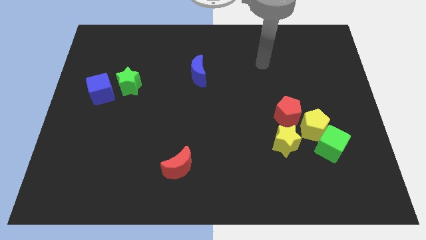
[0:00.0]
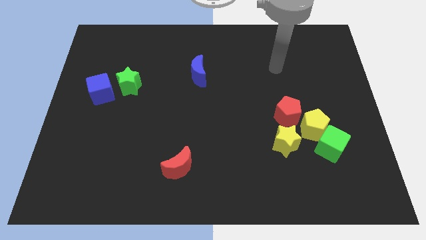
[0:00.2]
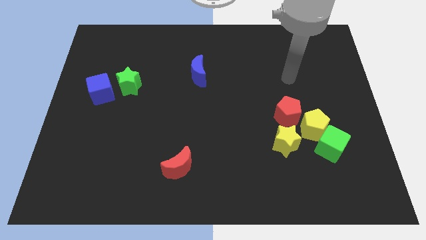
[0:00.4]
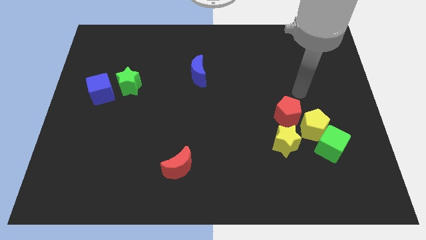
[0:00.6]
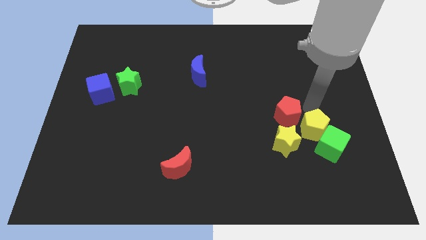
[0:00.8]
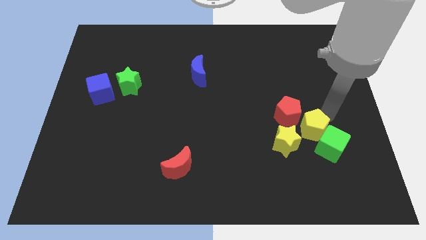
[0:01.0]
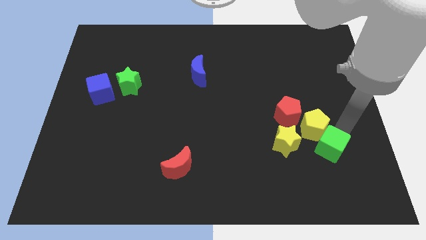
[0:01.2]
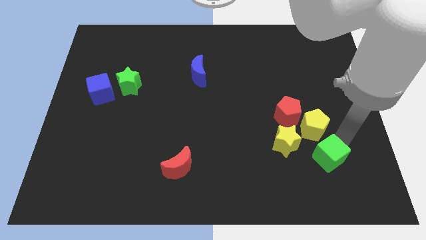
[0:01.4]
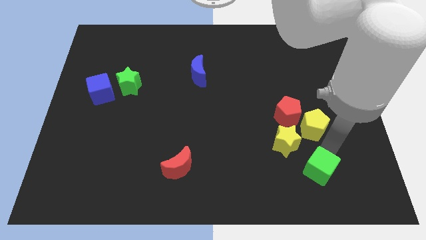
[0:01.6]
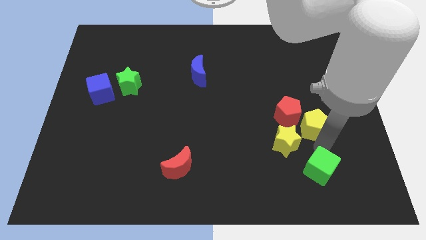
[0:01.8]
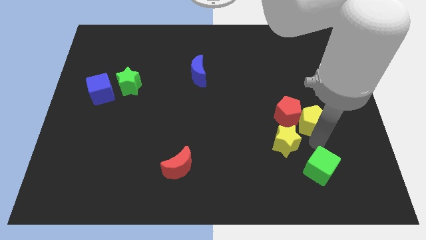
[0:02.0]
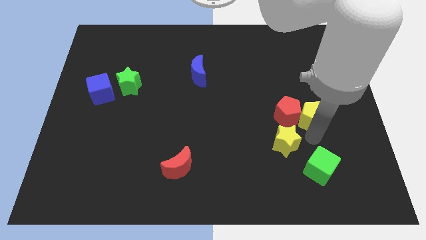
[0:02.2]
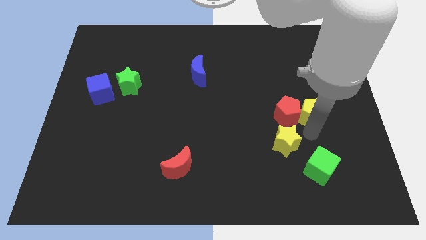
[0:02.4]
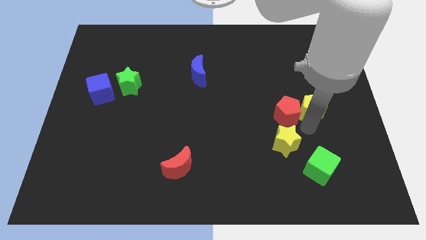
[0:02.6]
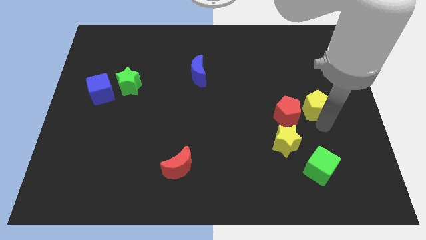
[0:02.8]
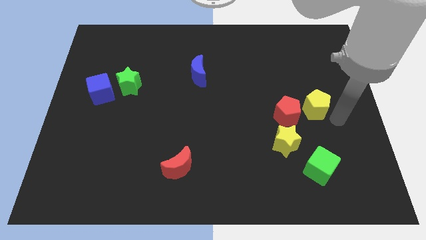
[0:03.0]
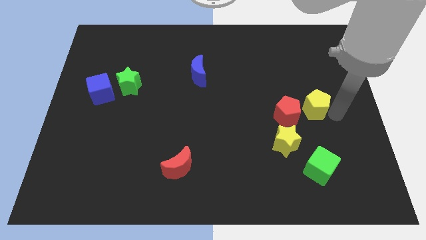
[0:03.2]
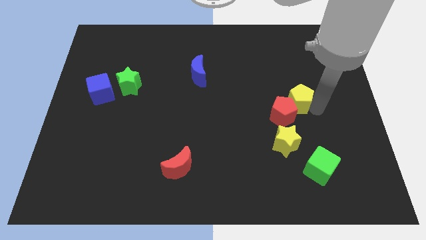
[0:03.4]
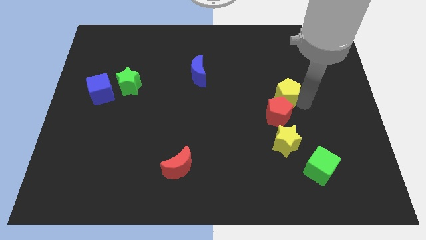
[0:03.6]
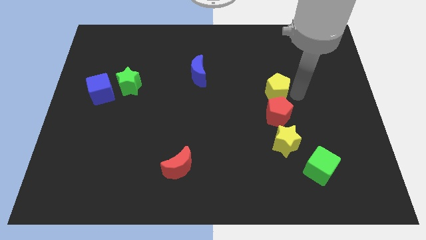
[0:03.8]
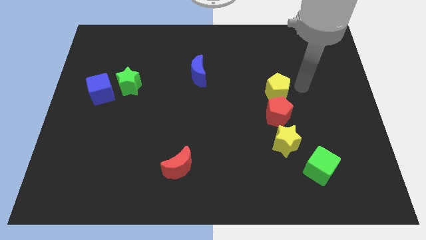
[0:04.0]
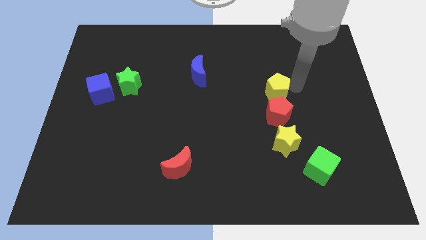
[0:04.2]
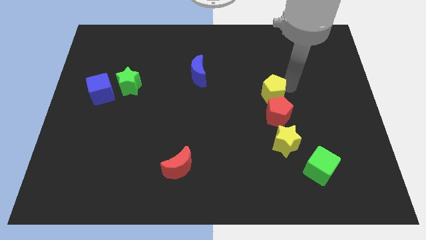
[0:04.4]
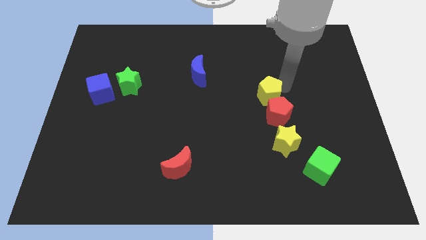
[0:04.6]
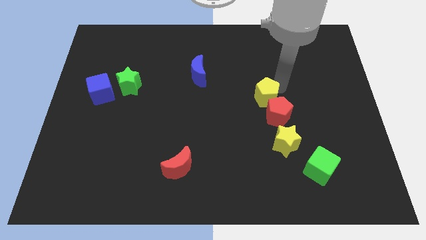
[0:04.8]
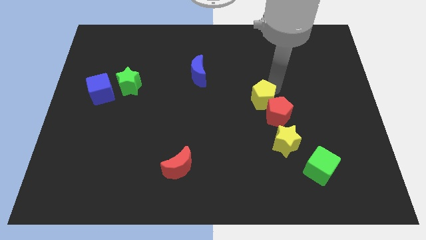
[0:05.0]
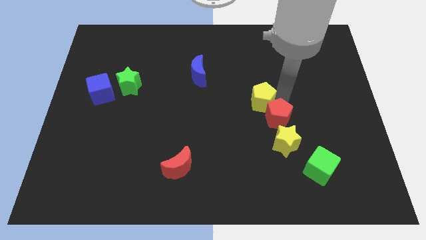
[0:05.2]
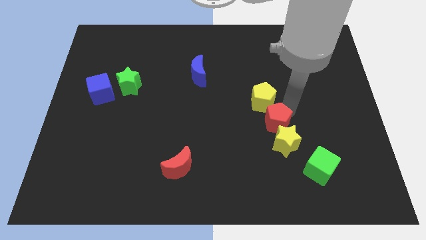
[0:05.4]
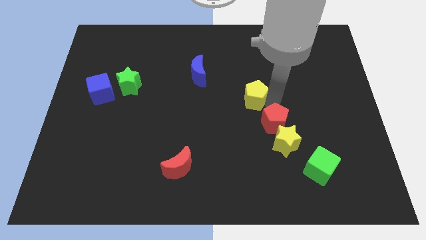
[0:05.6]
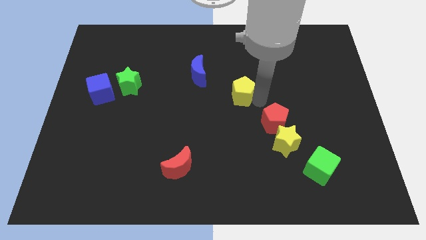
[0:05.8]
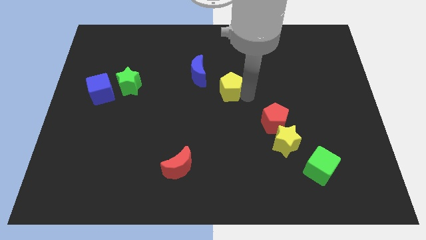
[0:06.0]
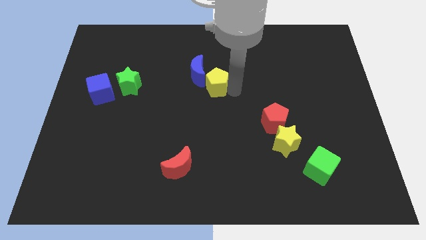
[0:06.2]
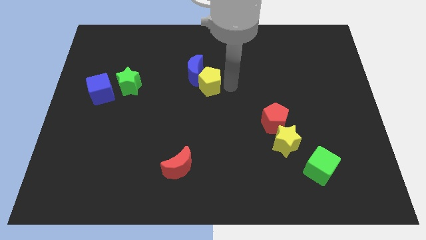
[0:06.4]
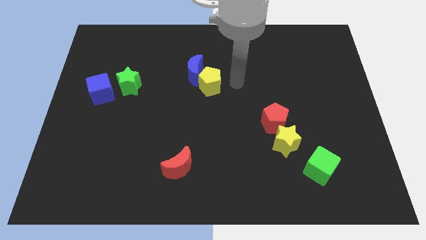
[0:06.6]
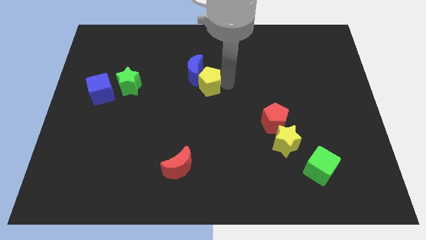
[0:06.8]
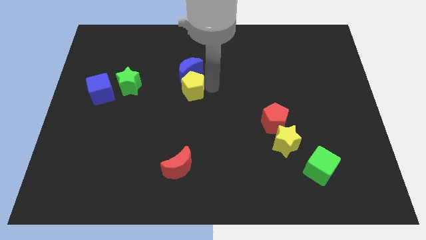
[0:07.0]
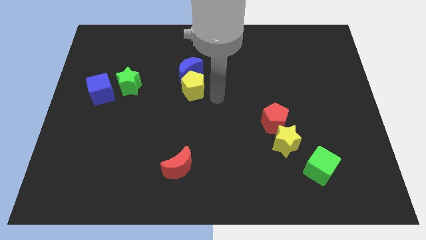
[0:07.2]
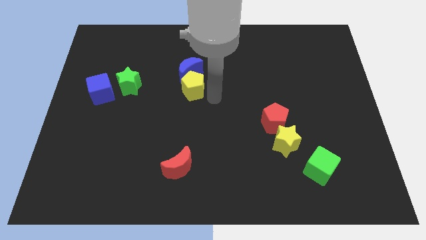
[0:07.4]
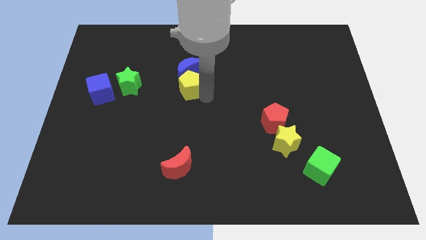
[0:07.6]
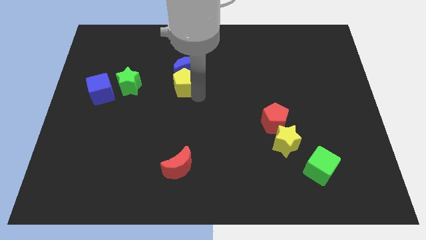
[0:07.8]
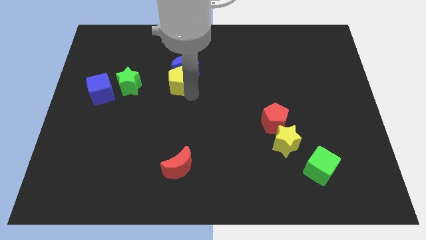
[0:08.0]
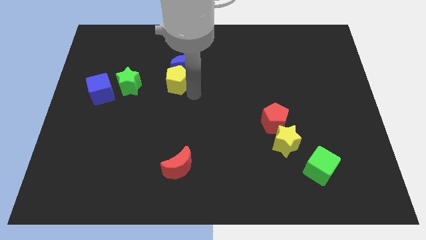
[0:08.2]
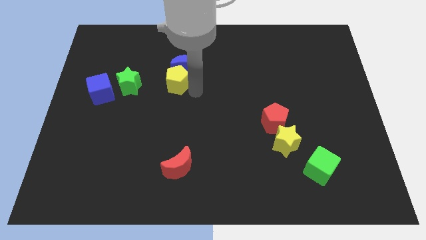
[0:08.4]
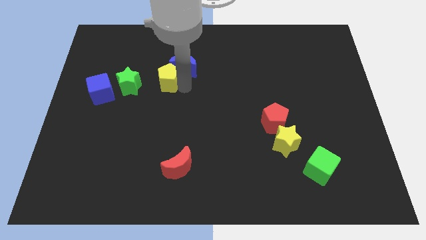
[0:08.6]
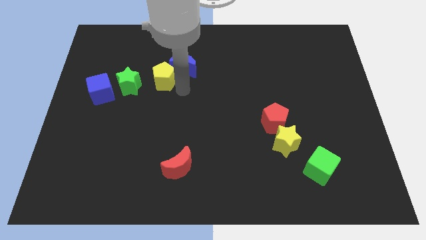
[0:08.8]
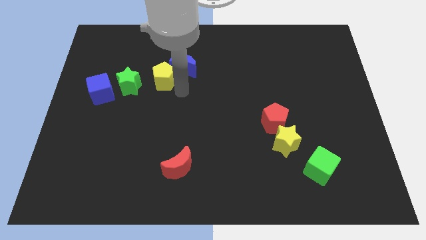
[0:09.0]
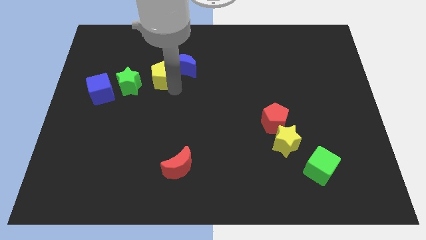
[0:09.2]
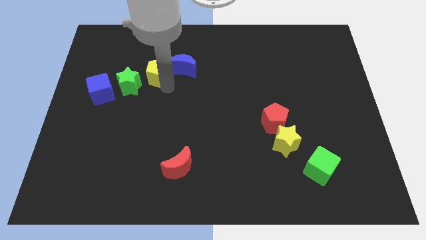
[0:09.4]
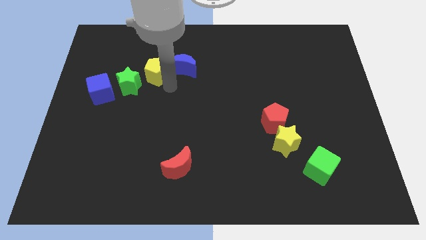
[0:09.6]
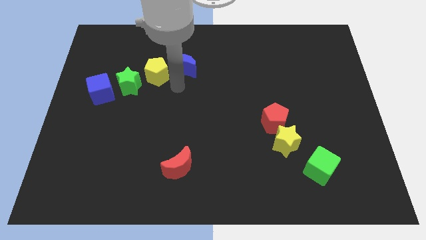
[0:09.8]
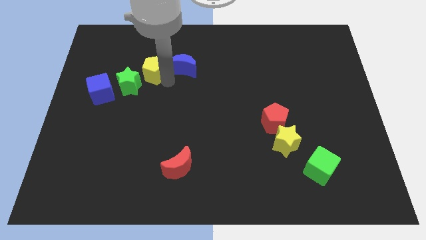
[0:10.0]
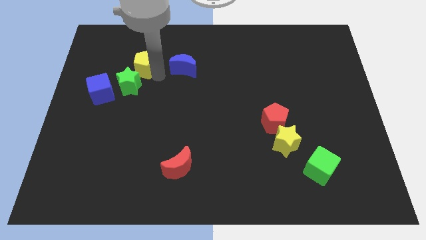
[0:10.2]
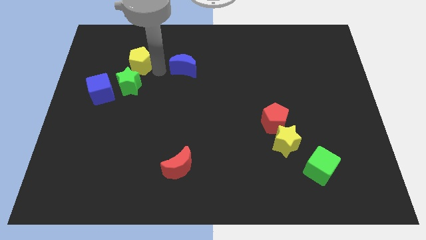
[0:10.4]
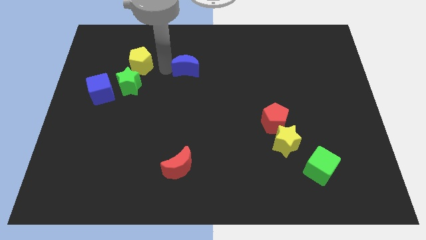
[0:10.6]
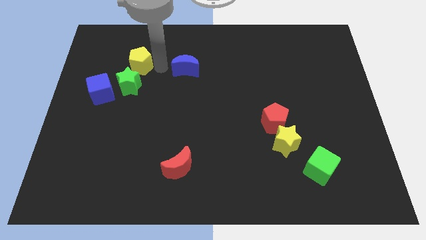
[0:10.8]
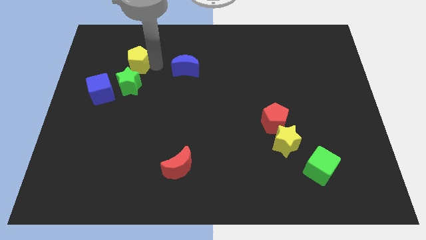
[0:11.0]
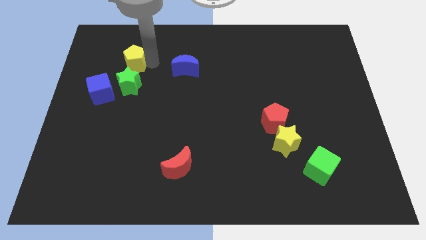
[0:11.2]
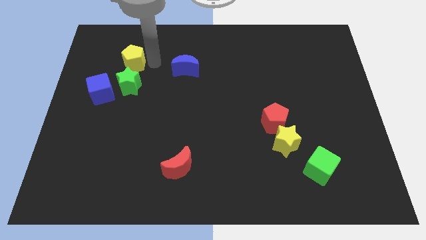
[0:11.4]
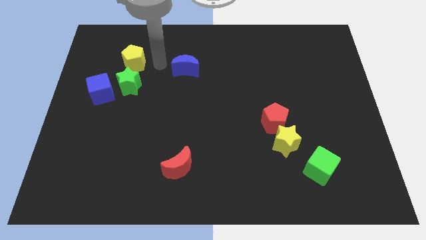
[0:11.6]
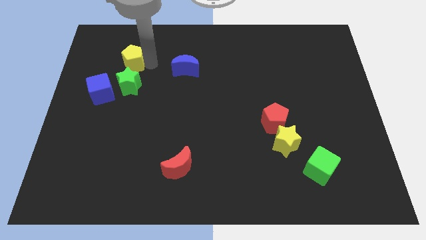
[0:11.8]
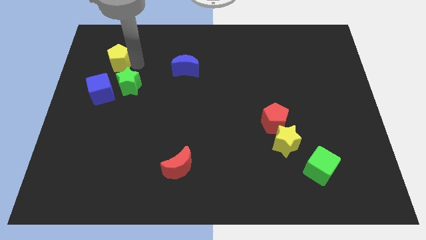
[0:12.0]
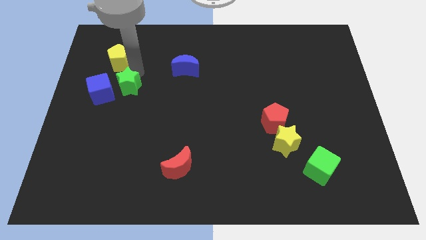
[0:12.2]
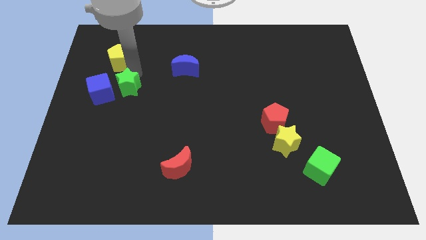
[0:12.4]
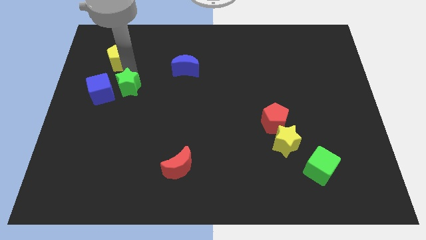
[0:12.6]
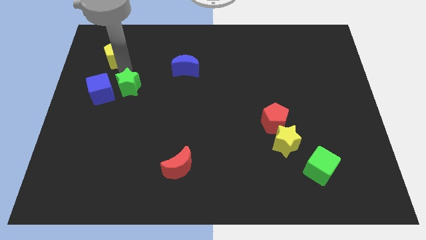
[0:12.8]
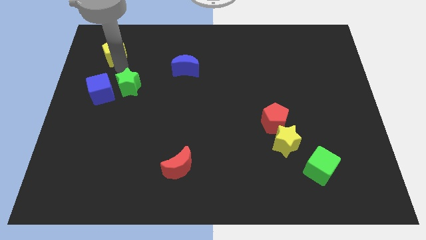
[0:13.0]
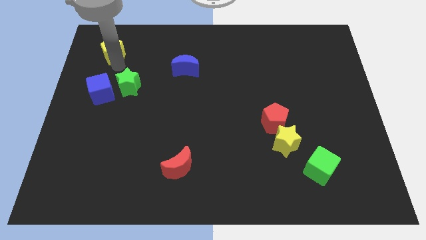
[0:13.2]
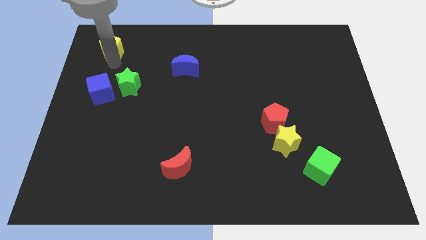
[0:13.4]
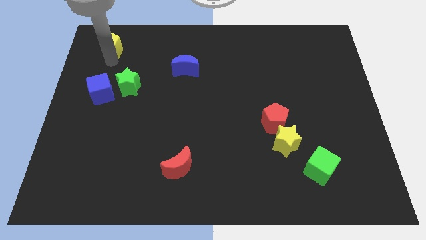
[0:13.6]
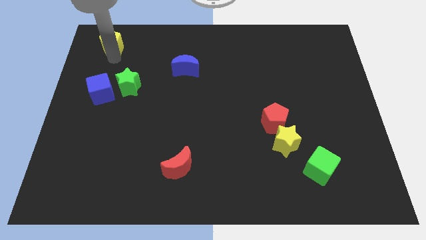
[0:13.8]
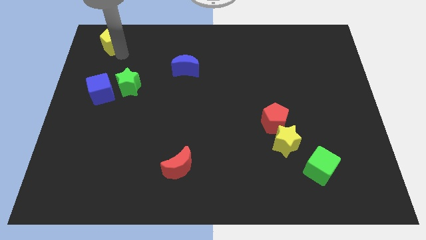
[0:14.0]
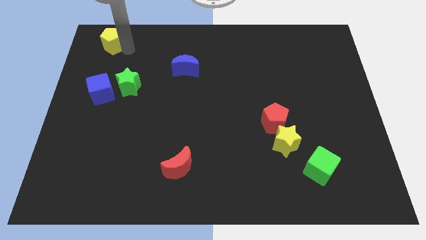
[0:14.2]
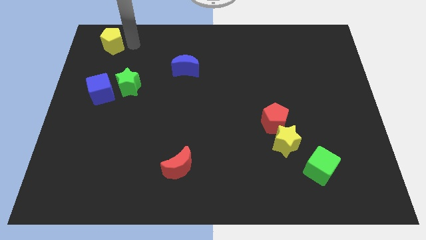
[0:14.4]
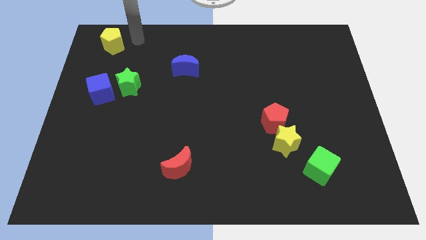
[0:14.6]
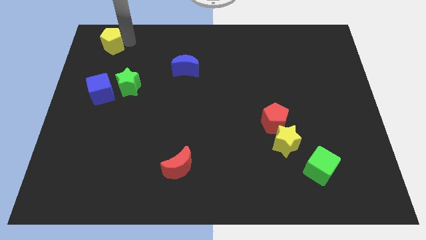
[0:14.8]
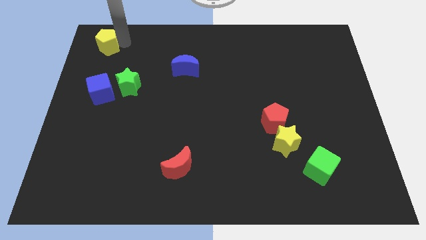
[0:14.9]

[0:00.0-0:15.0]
put the yellow pentagon to the top left of the board
